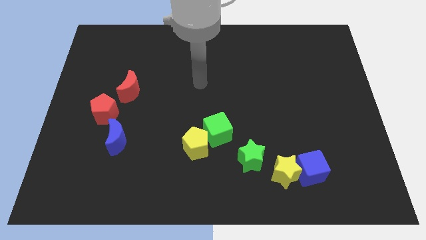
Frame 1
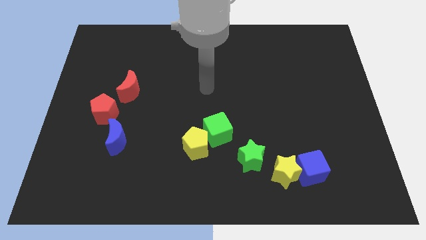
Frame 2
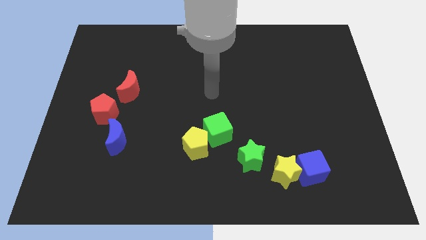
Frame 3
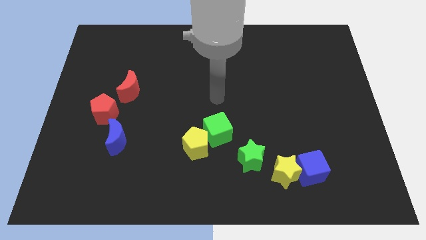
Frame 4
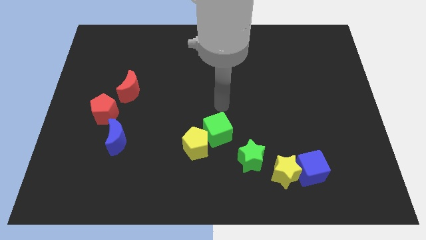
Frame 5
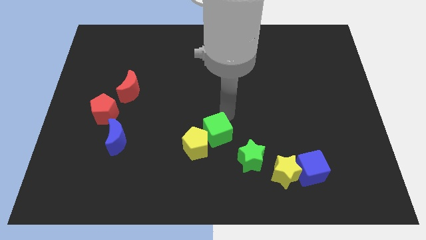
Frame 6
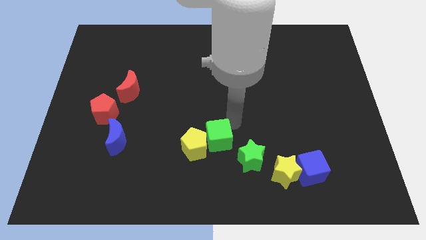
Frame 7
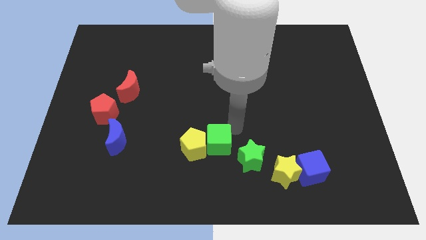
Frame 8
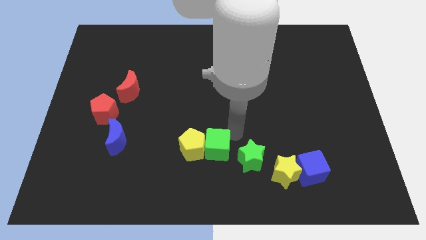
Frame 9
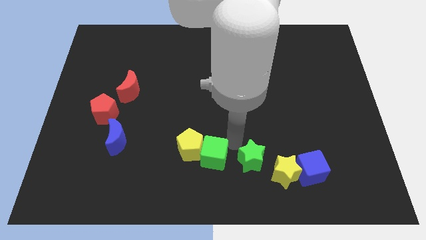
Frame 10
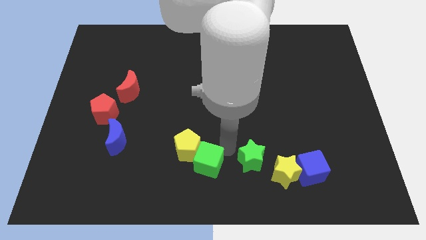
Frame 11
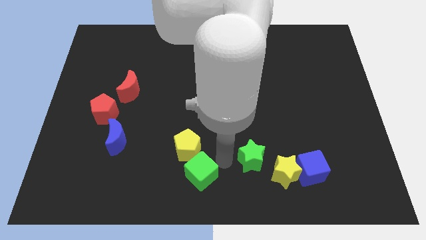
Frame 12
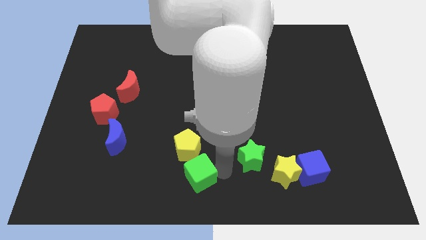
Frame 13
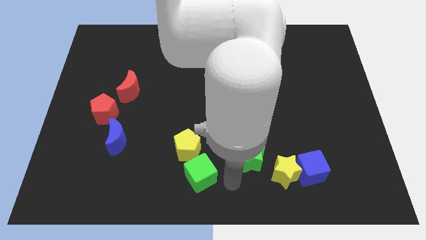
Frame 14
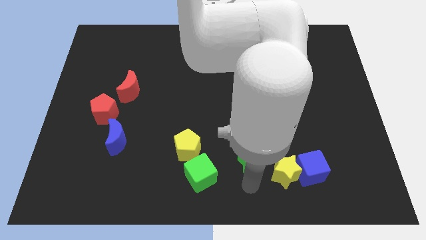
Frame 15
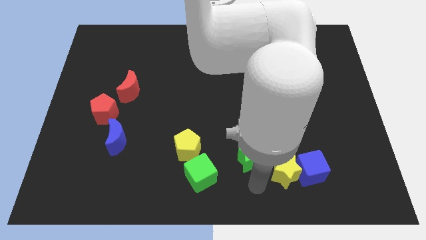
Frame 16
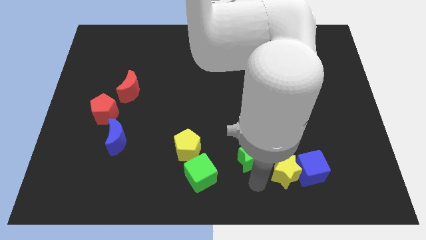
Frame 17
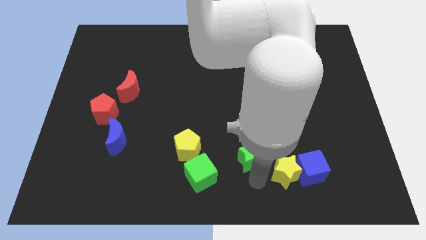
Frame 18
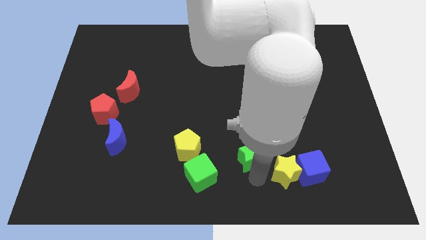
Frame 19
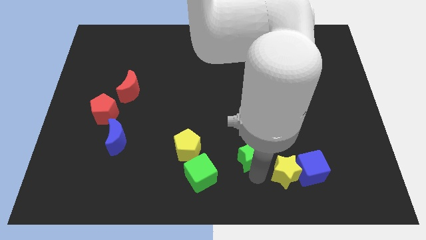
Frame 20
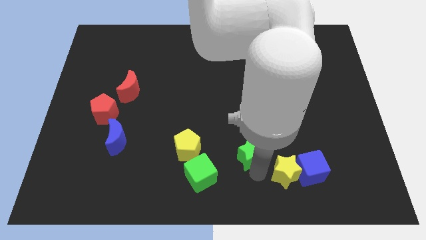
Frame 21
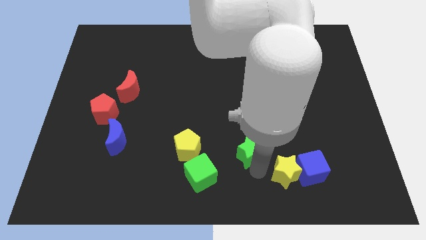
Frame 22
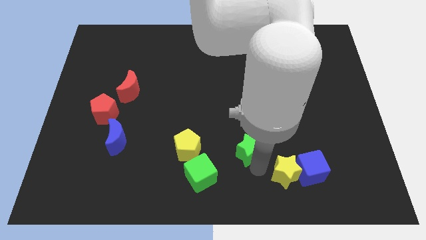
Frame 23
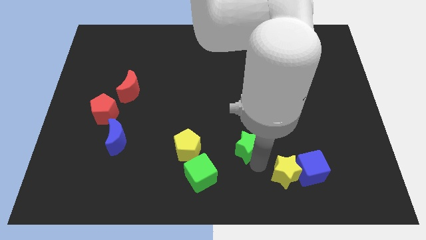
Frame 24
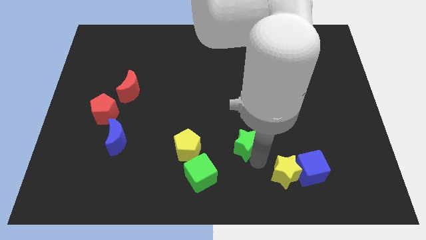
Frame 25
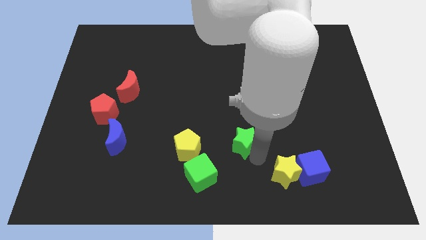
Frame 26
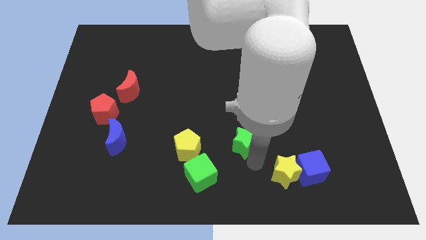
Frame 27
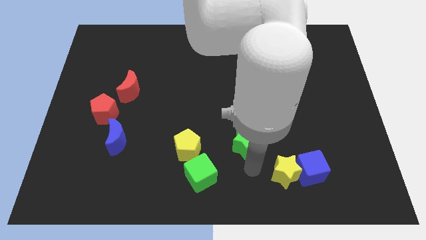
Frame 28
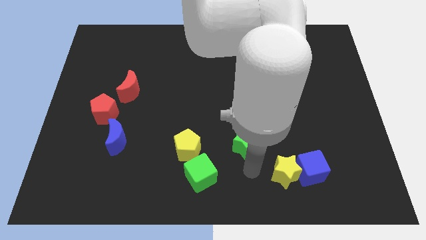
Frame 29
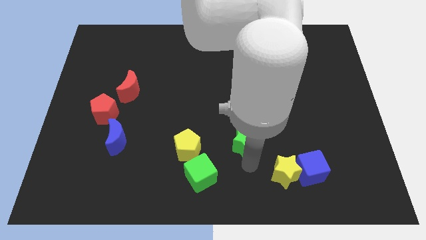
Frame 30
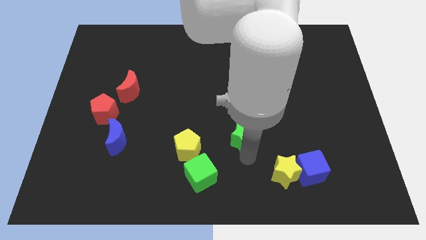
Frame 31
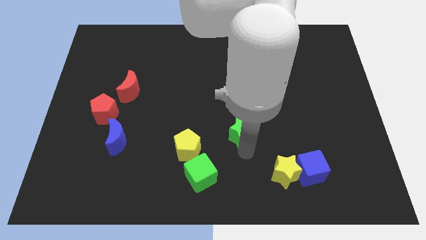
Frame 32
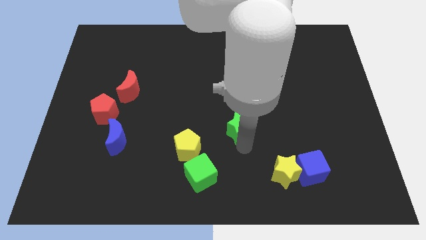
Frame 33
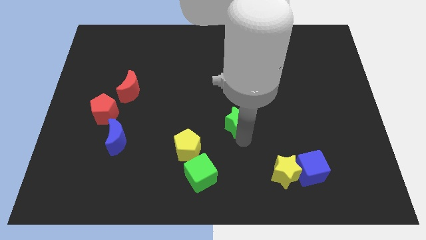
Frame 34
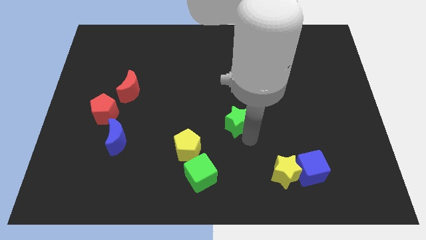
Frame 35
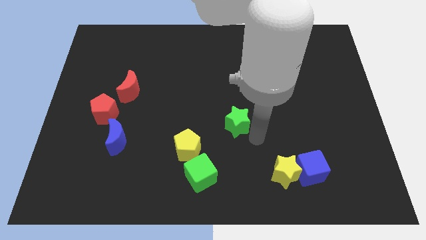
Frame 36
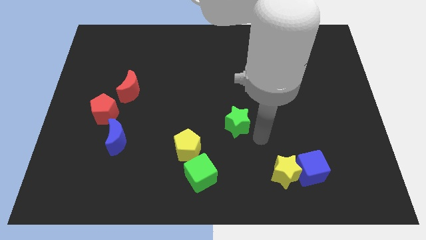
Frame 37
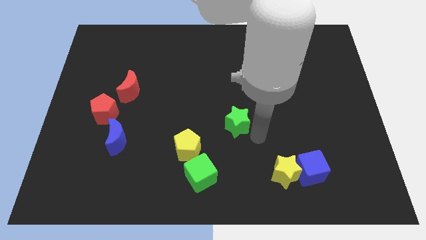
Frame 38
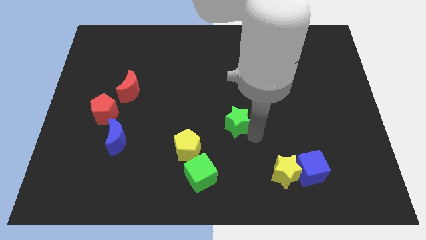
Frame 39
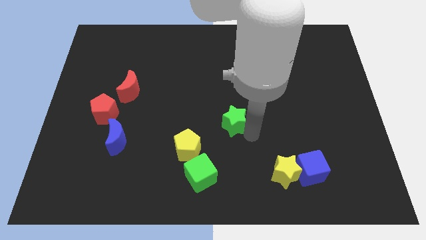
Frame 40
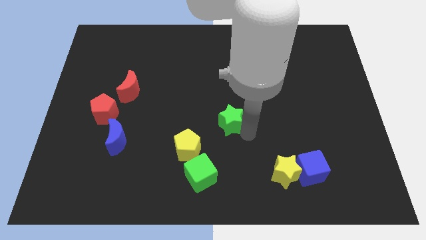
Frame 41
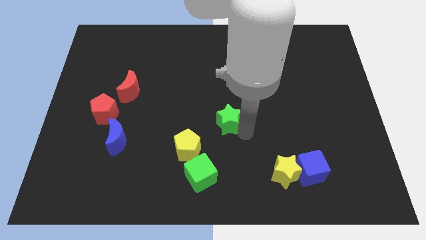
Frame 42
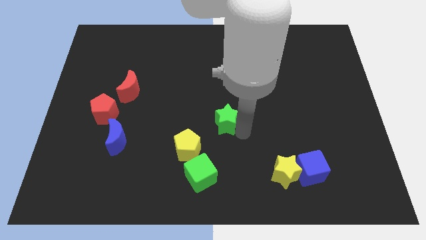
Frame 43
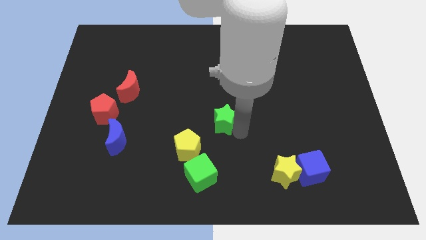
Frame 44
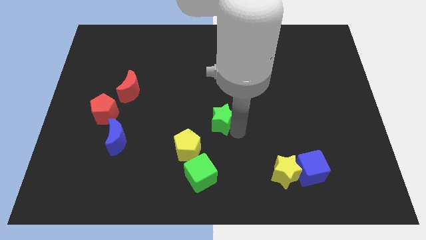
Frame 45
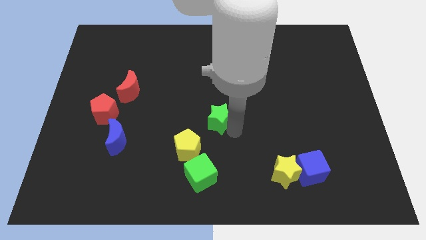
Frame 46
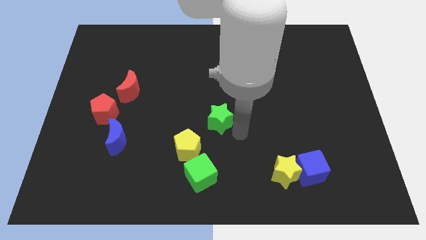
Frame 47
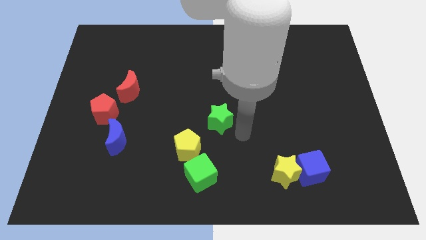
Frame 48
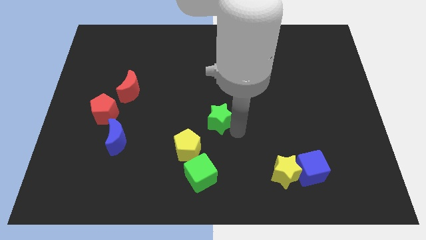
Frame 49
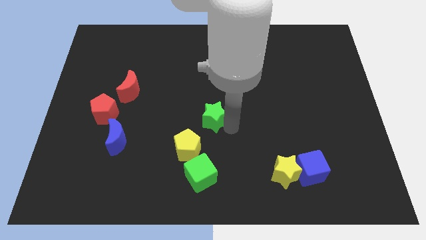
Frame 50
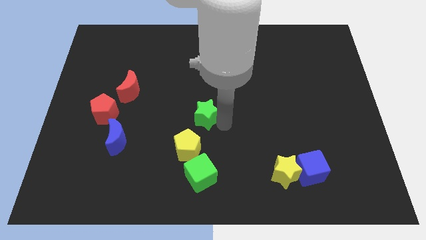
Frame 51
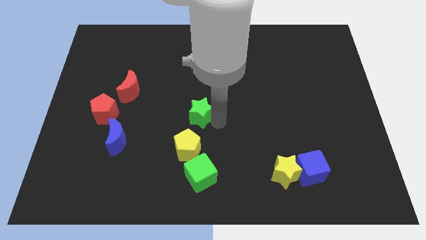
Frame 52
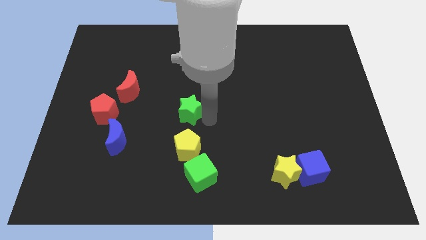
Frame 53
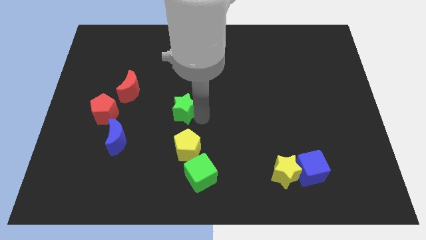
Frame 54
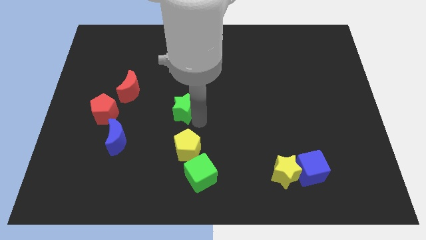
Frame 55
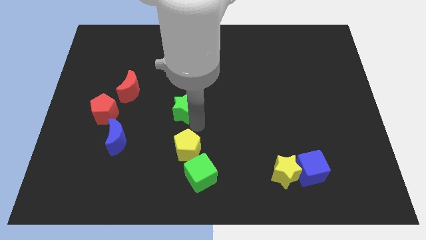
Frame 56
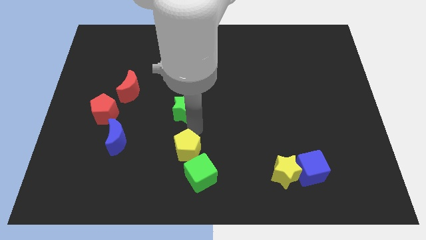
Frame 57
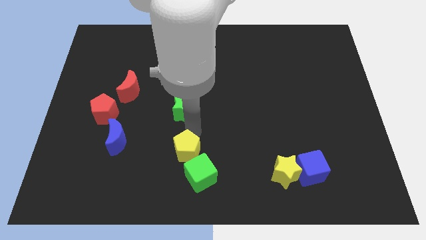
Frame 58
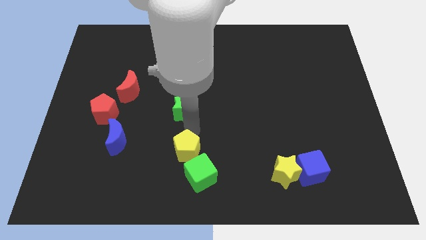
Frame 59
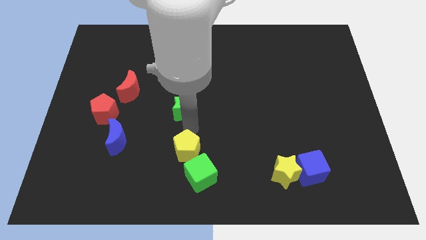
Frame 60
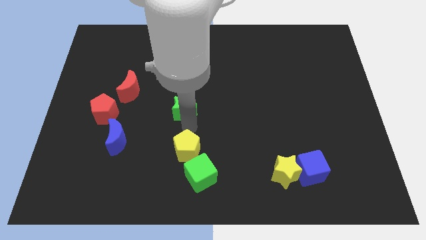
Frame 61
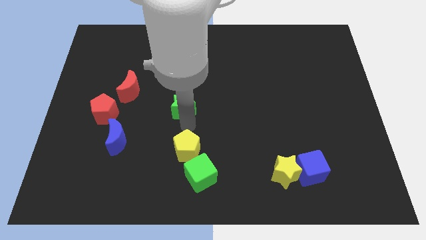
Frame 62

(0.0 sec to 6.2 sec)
push the green star up and then left

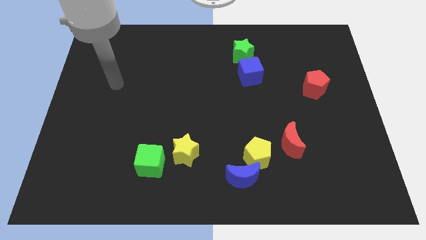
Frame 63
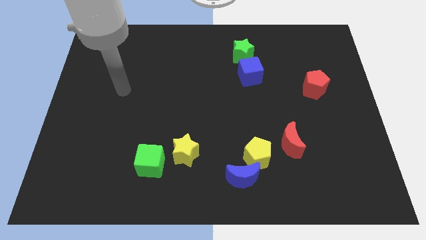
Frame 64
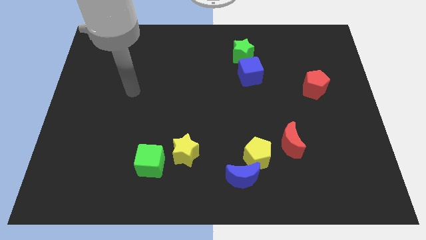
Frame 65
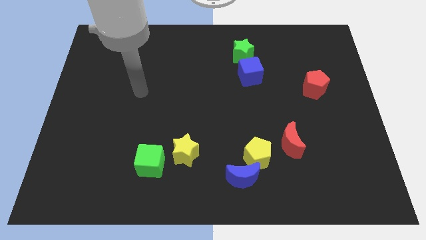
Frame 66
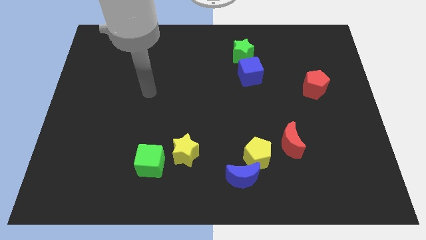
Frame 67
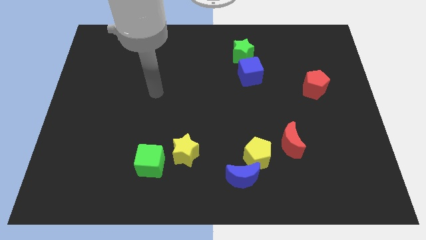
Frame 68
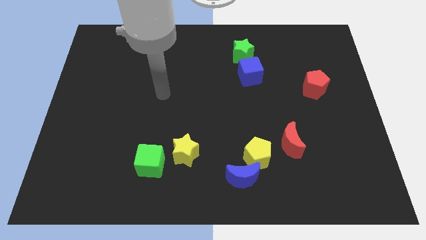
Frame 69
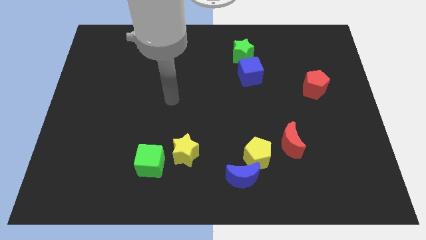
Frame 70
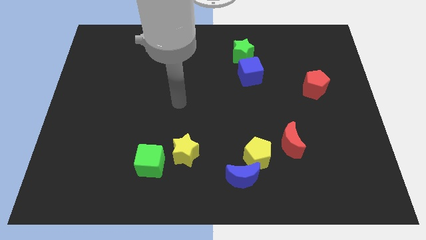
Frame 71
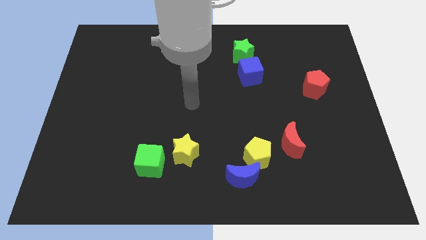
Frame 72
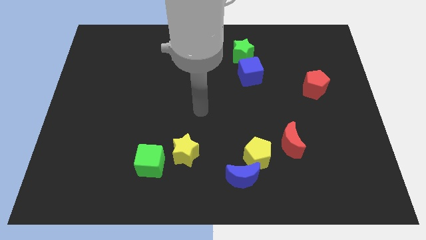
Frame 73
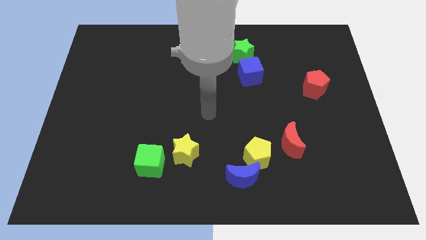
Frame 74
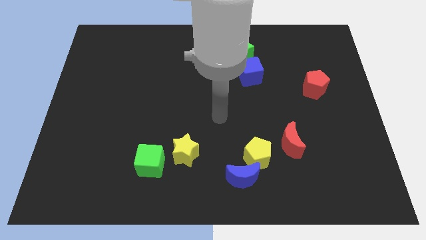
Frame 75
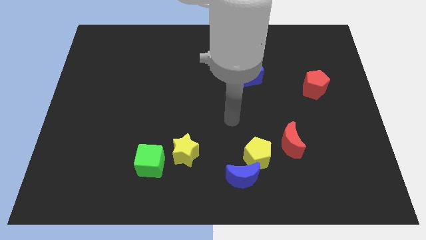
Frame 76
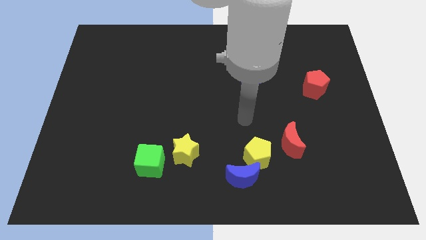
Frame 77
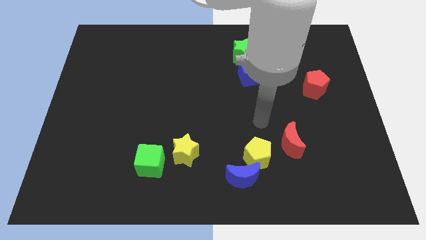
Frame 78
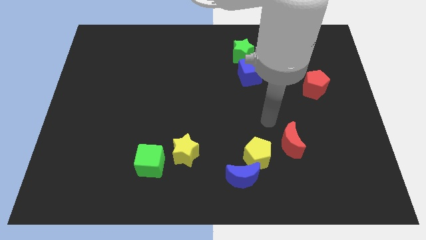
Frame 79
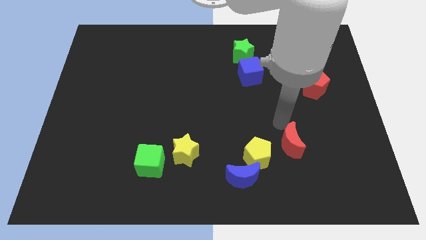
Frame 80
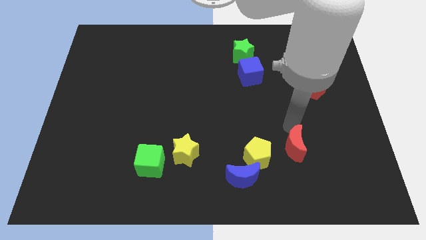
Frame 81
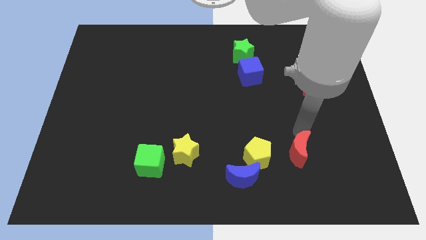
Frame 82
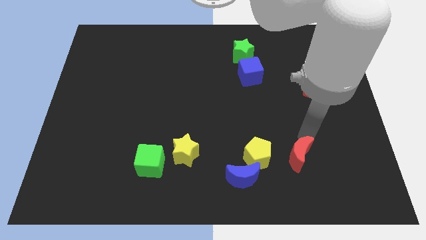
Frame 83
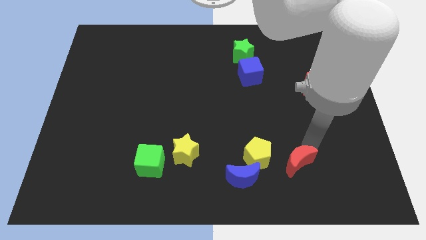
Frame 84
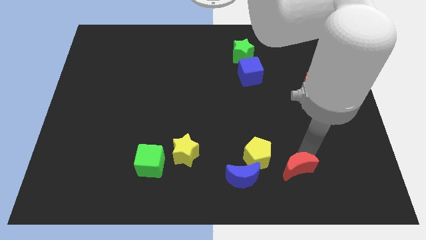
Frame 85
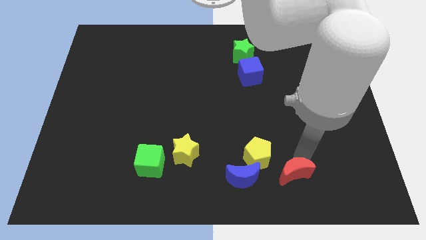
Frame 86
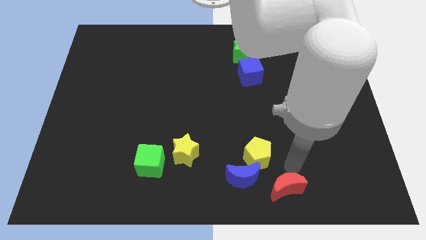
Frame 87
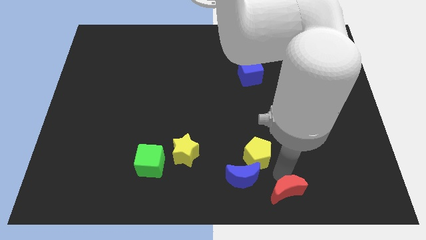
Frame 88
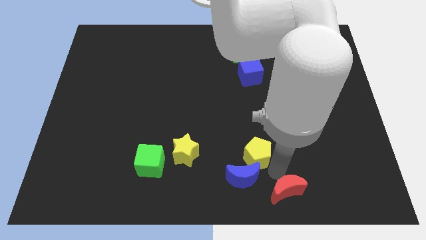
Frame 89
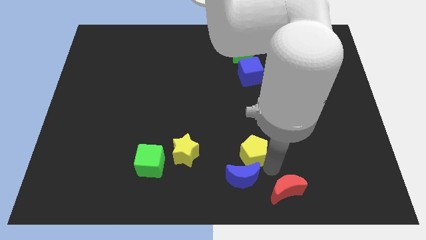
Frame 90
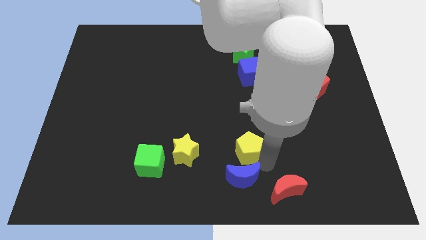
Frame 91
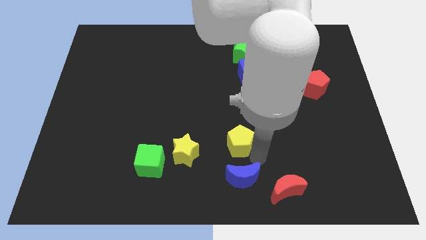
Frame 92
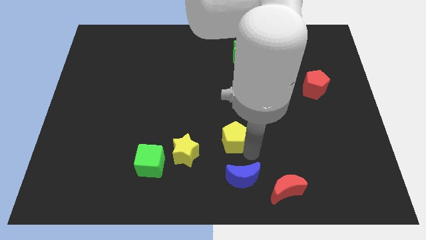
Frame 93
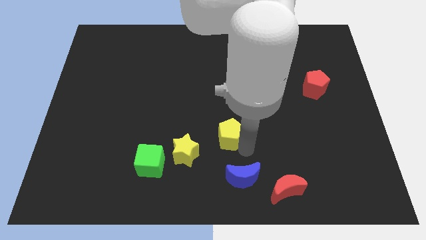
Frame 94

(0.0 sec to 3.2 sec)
push the yellow pentagon up and left diagonally somewhat
